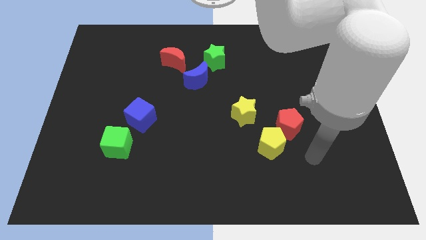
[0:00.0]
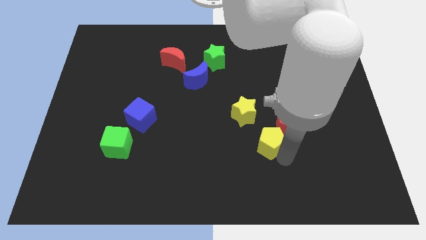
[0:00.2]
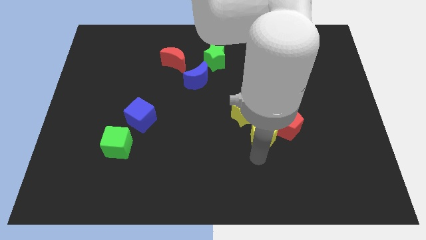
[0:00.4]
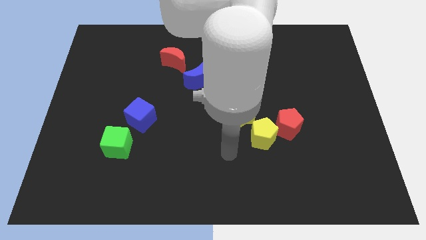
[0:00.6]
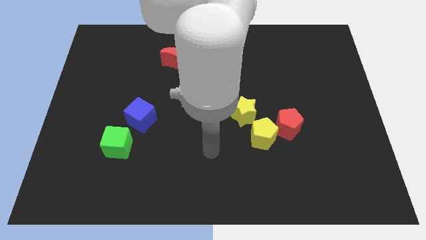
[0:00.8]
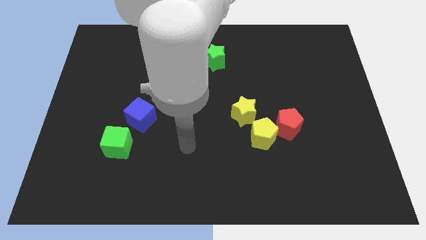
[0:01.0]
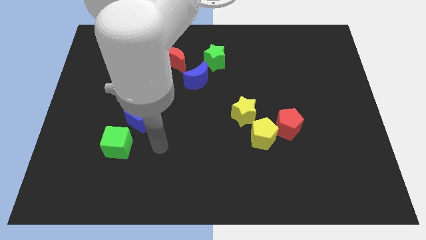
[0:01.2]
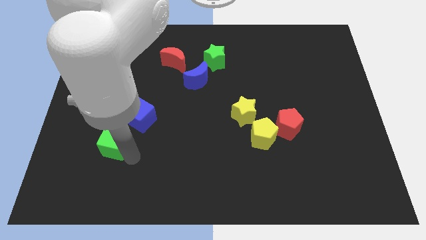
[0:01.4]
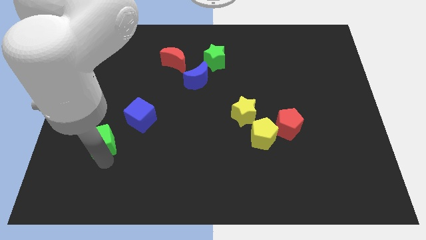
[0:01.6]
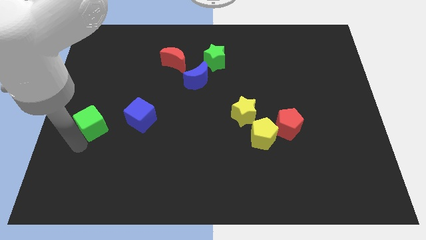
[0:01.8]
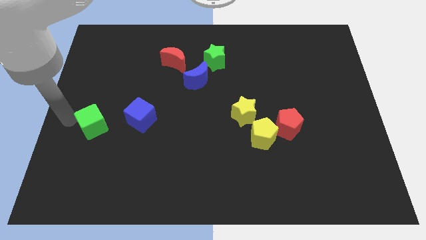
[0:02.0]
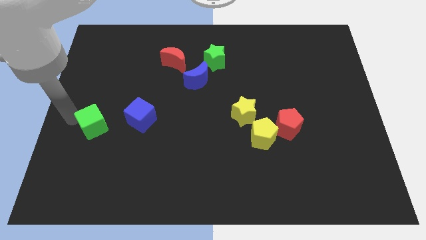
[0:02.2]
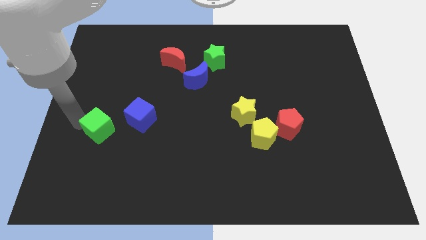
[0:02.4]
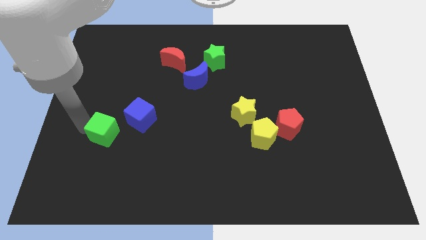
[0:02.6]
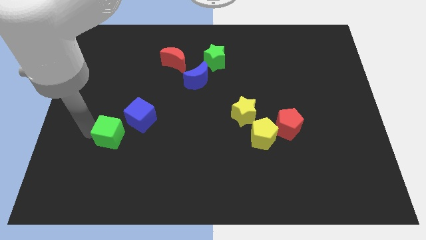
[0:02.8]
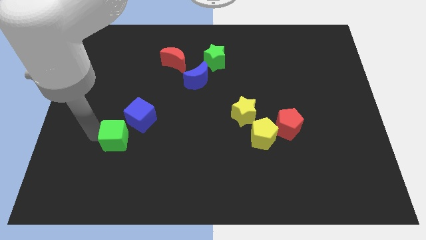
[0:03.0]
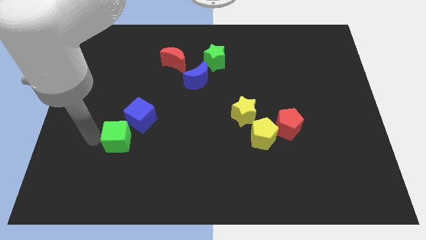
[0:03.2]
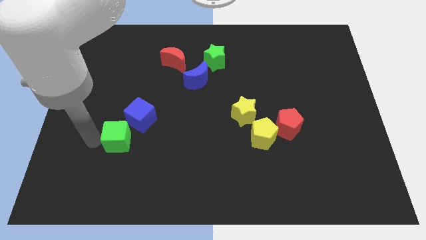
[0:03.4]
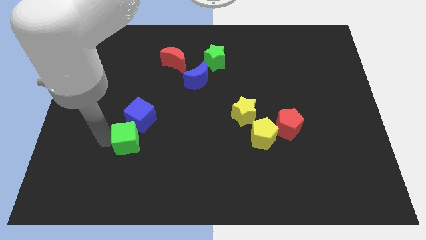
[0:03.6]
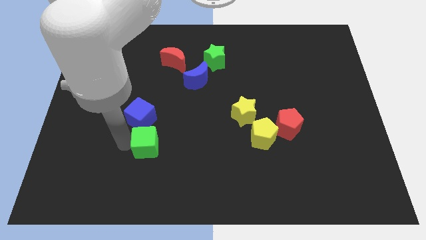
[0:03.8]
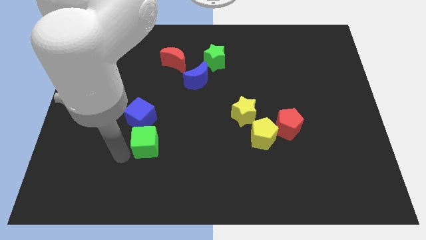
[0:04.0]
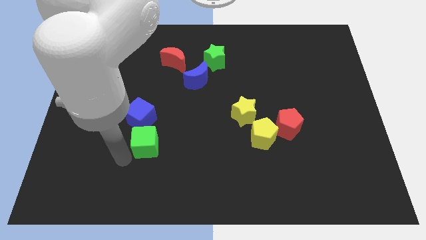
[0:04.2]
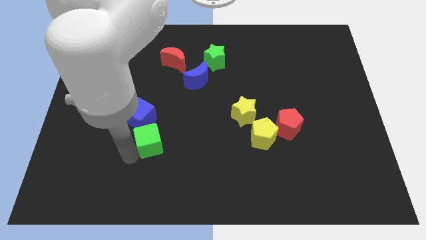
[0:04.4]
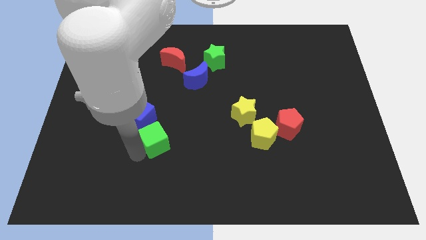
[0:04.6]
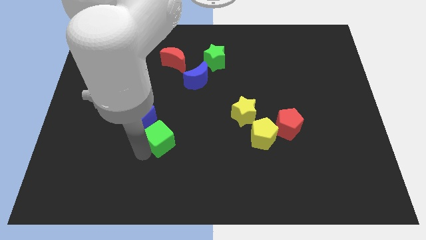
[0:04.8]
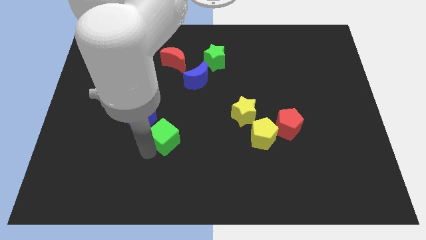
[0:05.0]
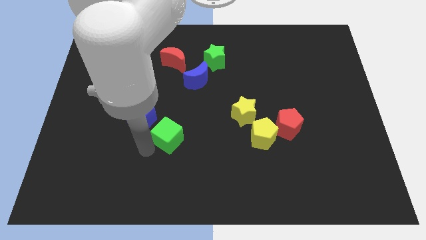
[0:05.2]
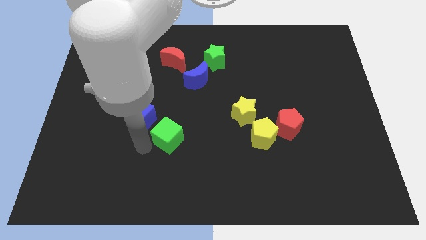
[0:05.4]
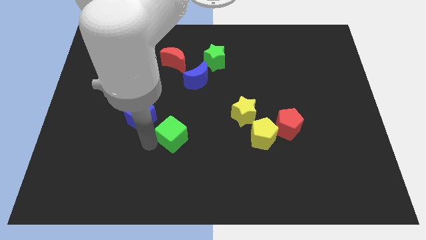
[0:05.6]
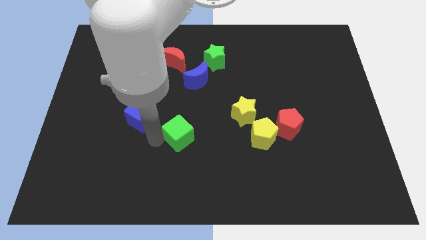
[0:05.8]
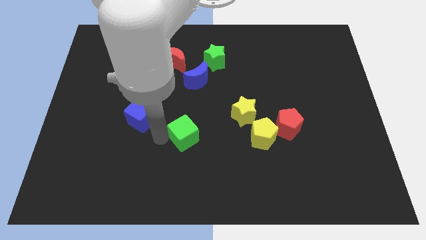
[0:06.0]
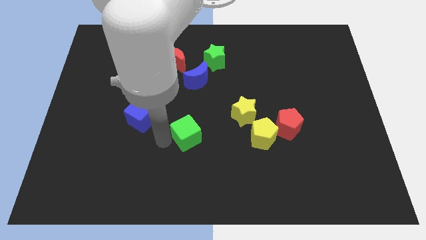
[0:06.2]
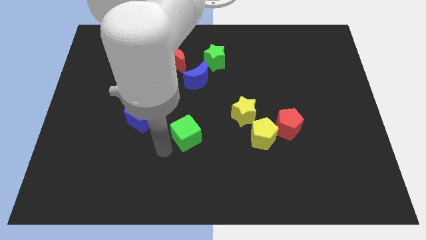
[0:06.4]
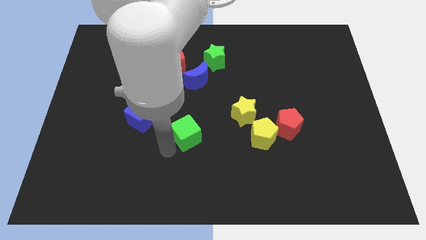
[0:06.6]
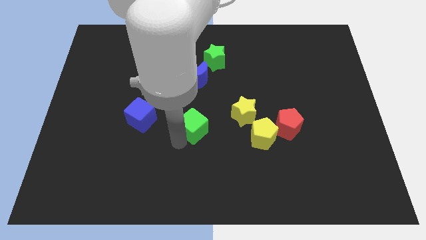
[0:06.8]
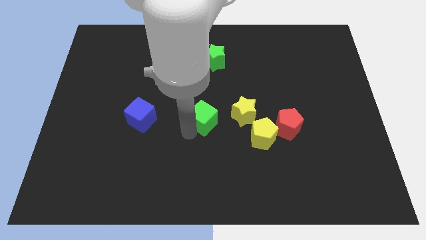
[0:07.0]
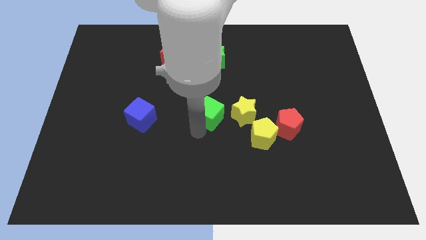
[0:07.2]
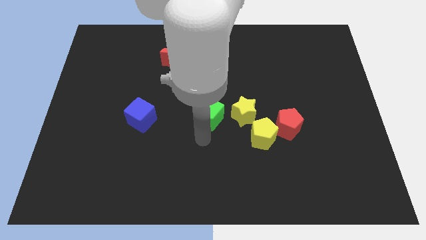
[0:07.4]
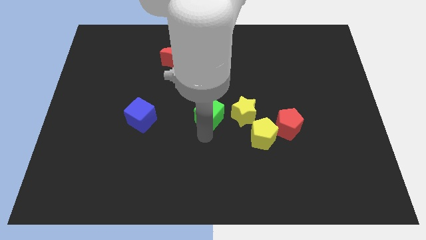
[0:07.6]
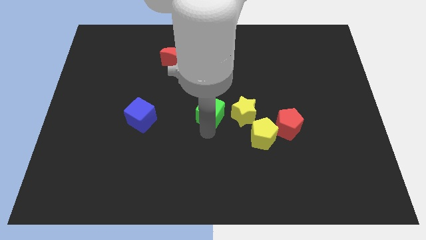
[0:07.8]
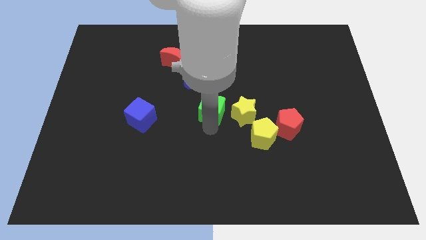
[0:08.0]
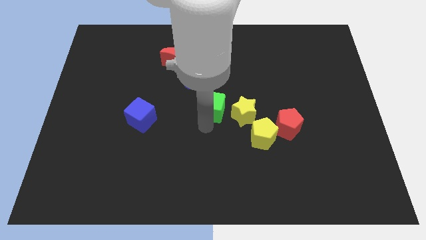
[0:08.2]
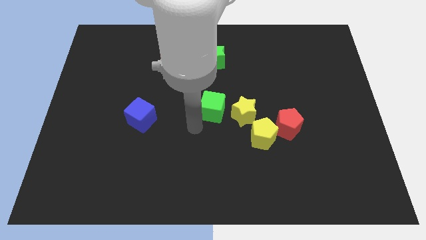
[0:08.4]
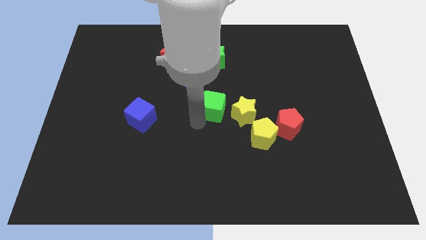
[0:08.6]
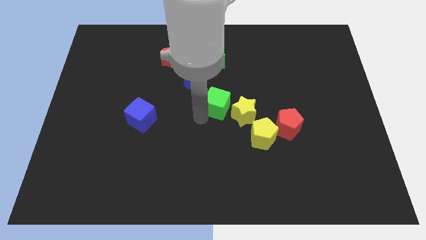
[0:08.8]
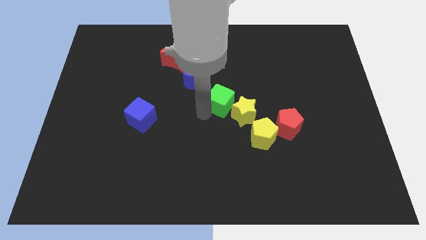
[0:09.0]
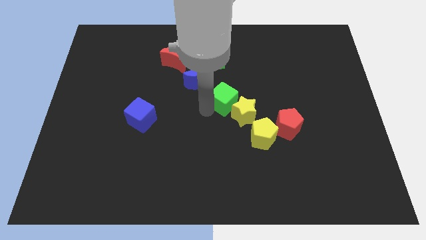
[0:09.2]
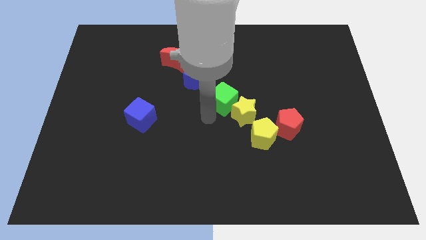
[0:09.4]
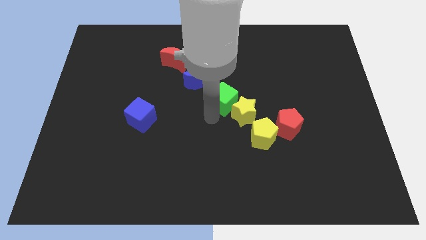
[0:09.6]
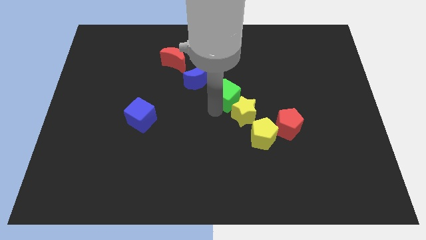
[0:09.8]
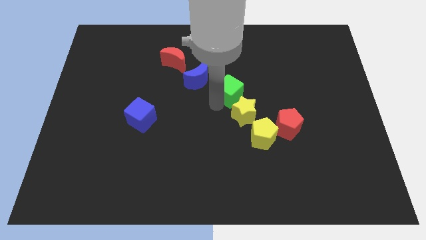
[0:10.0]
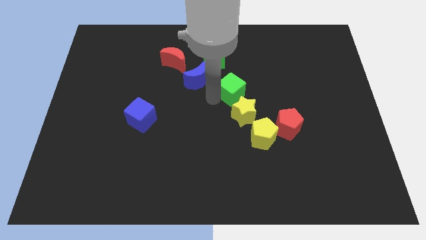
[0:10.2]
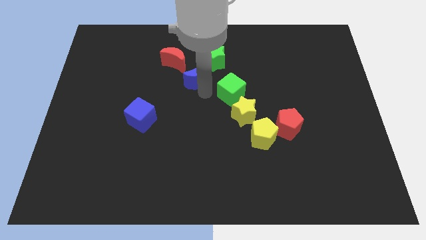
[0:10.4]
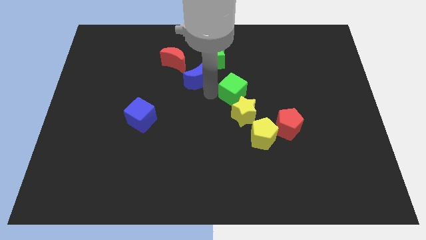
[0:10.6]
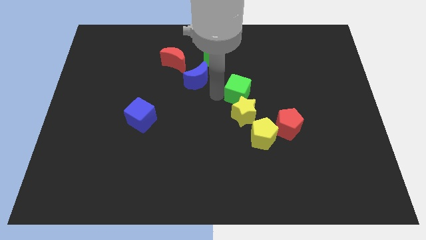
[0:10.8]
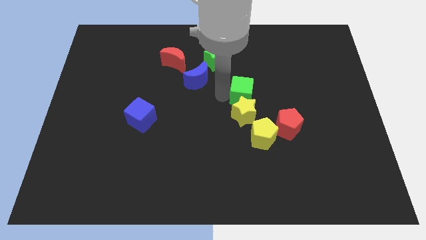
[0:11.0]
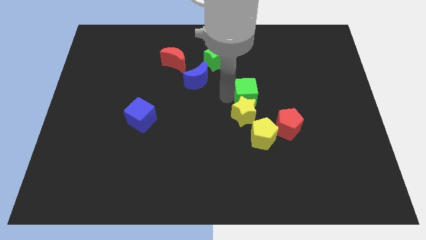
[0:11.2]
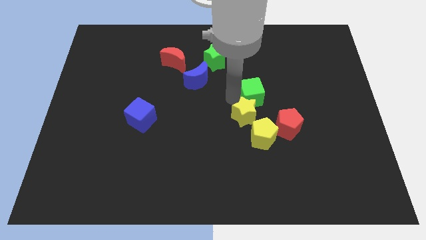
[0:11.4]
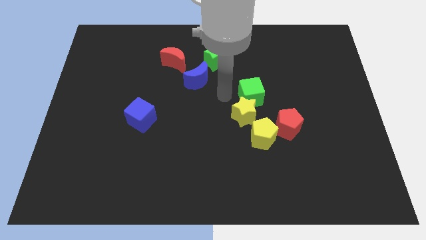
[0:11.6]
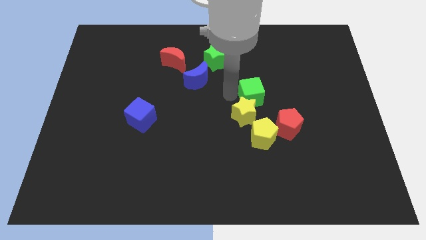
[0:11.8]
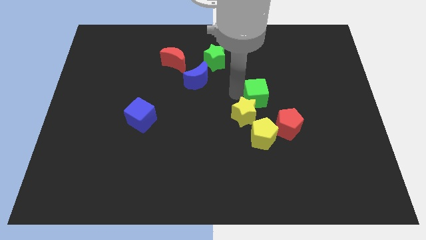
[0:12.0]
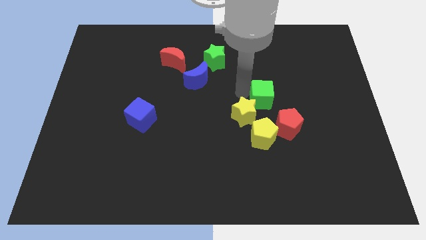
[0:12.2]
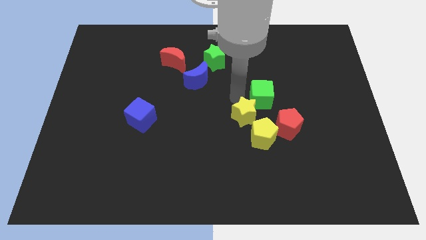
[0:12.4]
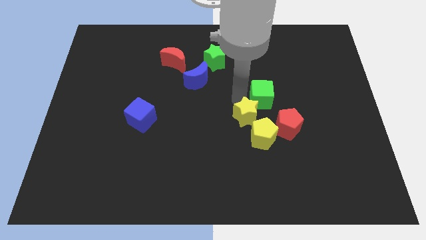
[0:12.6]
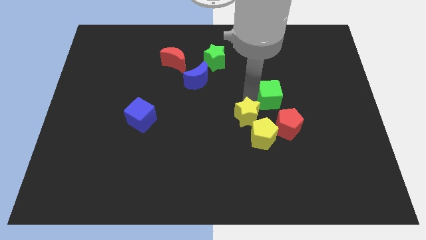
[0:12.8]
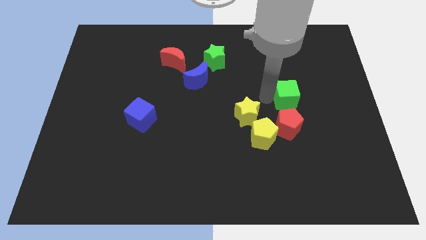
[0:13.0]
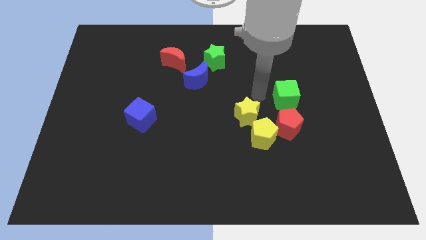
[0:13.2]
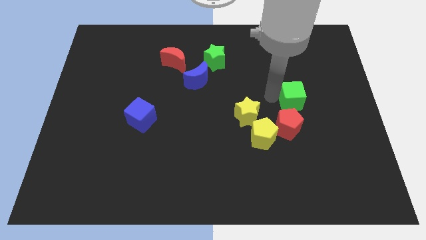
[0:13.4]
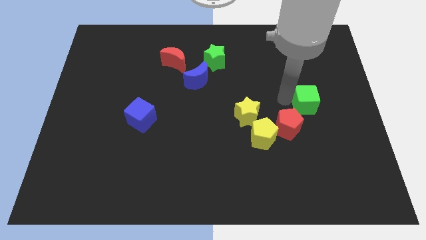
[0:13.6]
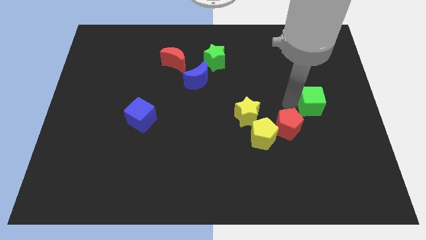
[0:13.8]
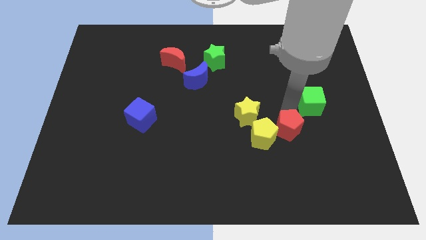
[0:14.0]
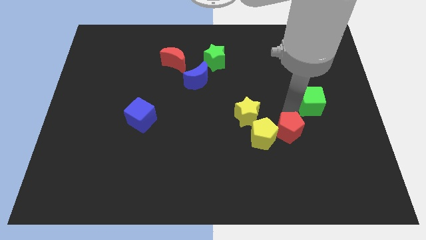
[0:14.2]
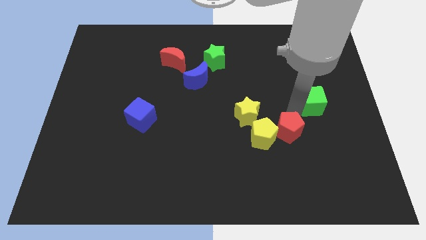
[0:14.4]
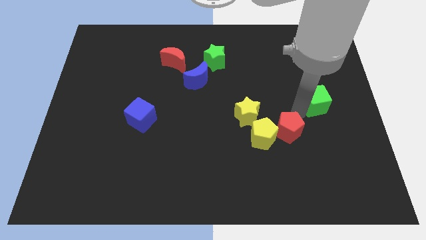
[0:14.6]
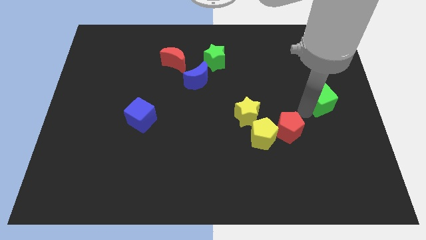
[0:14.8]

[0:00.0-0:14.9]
put the green cube to the right side of the board

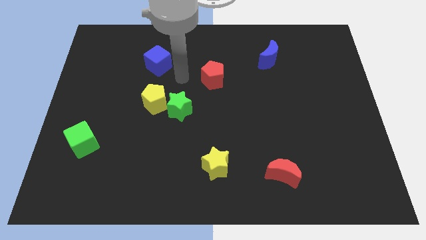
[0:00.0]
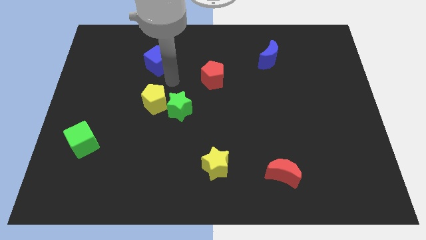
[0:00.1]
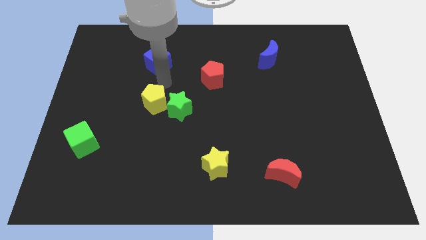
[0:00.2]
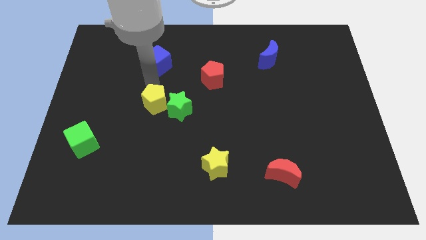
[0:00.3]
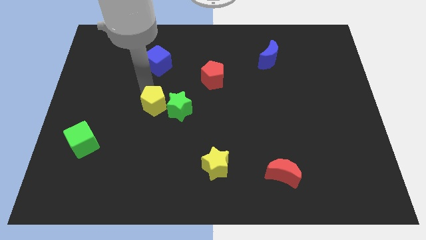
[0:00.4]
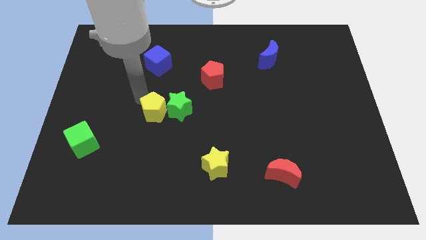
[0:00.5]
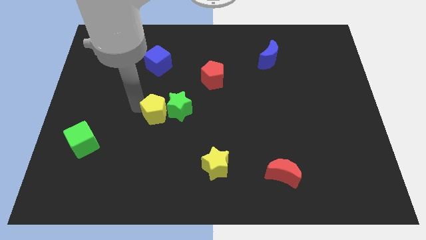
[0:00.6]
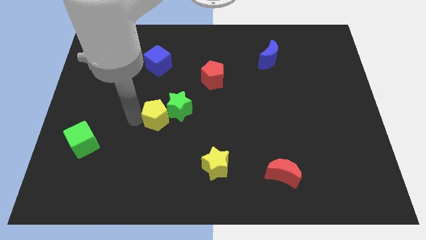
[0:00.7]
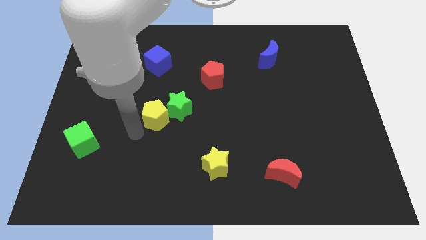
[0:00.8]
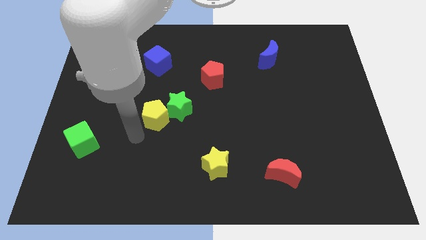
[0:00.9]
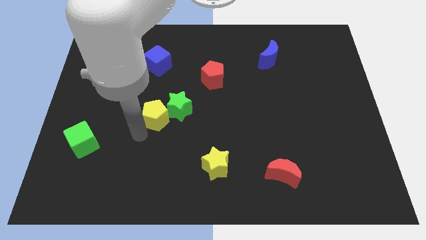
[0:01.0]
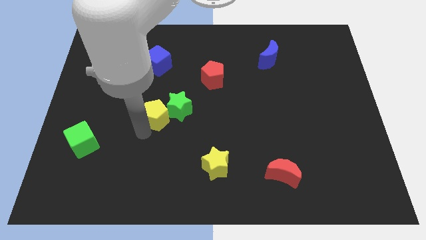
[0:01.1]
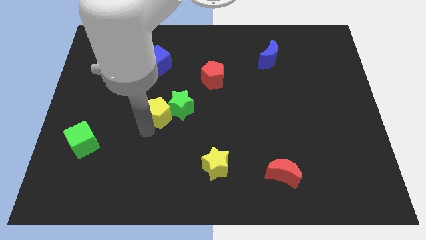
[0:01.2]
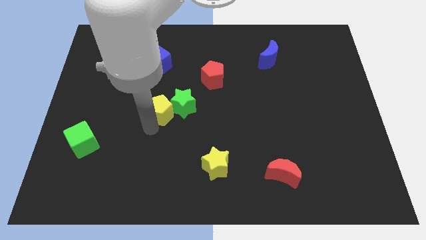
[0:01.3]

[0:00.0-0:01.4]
put the yellow pentagon to the center of the board
